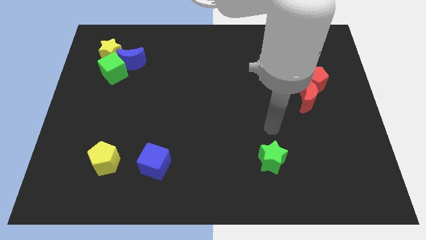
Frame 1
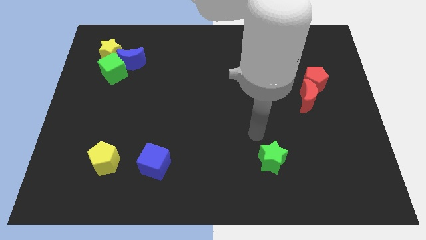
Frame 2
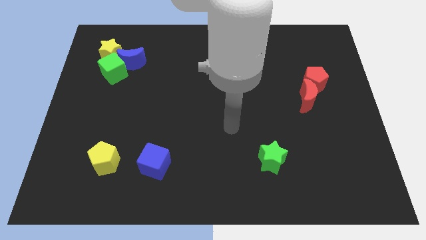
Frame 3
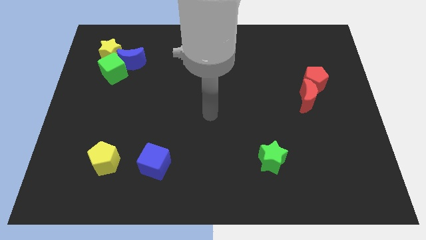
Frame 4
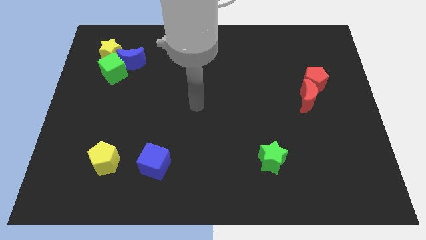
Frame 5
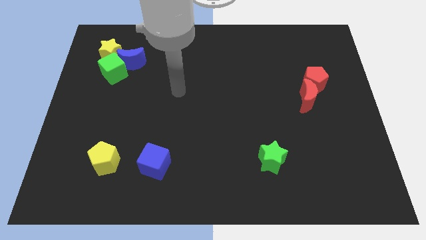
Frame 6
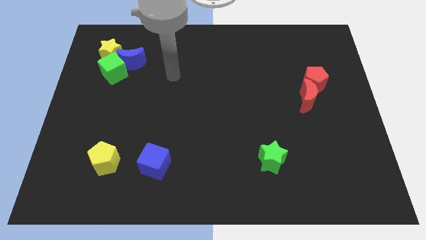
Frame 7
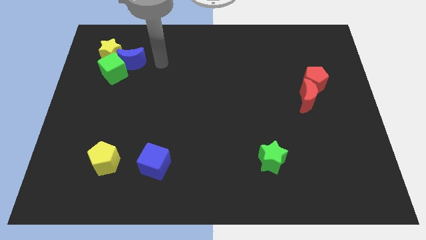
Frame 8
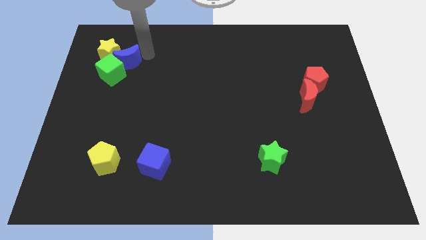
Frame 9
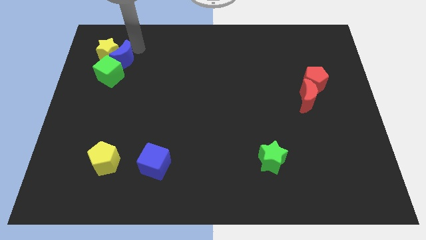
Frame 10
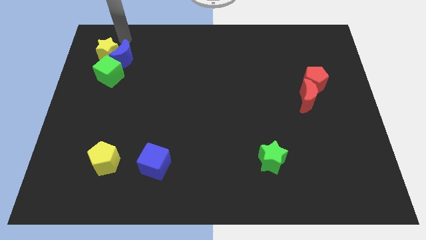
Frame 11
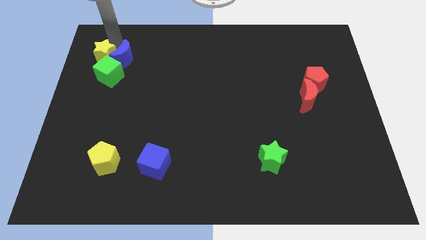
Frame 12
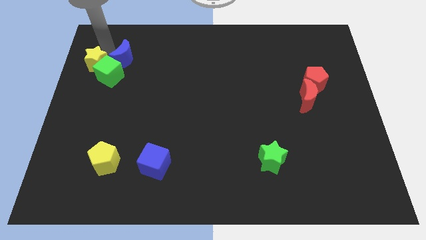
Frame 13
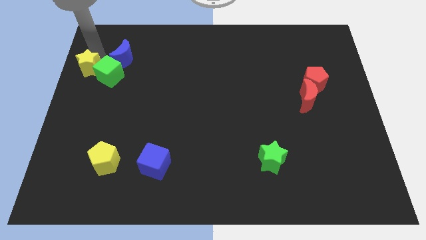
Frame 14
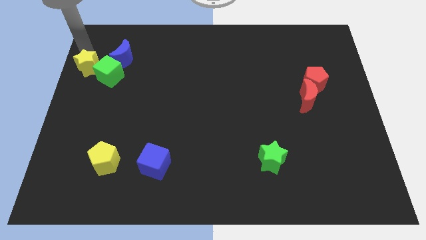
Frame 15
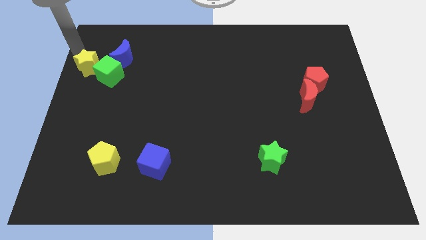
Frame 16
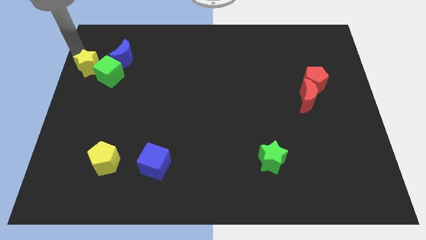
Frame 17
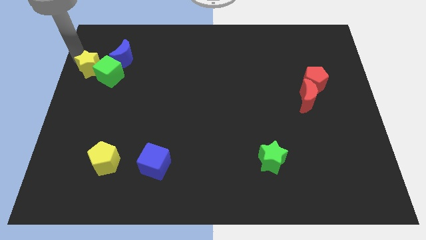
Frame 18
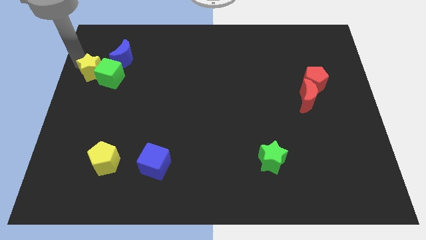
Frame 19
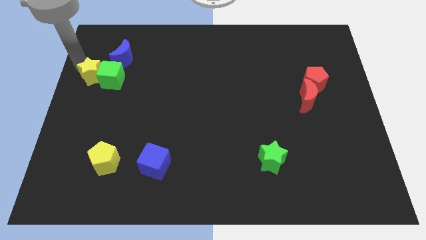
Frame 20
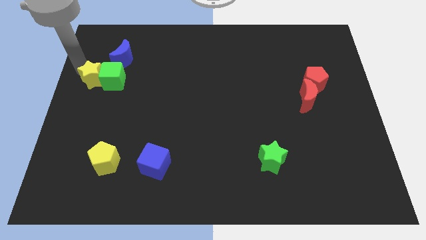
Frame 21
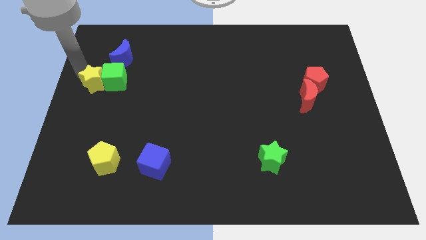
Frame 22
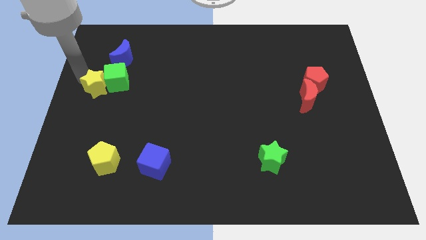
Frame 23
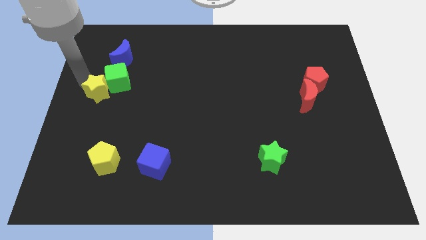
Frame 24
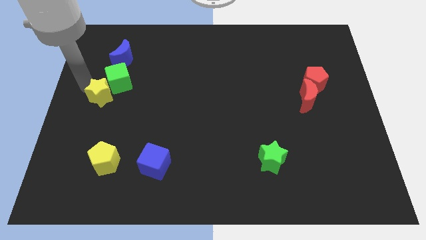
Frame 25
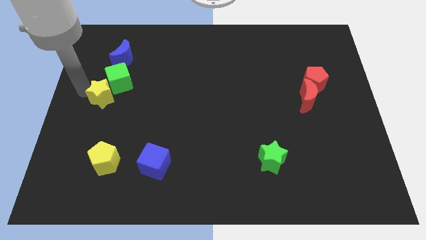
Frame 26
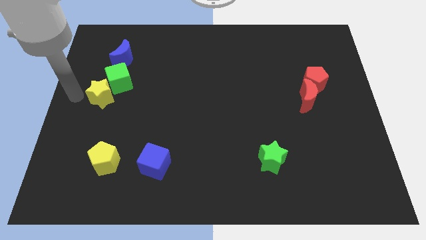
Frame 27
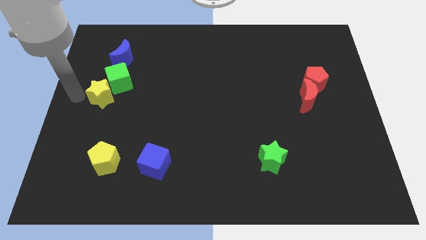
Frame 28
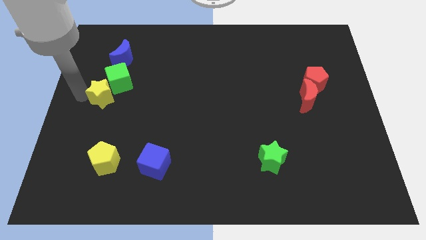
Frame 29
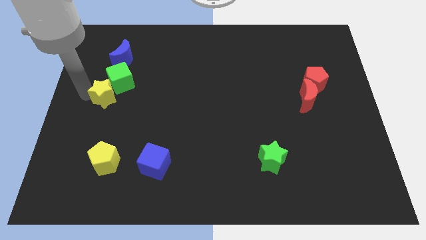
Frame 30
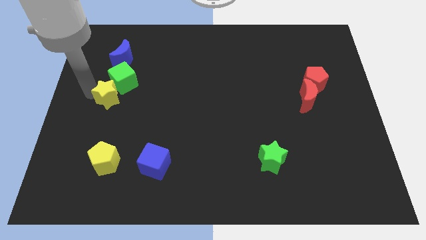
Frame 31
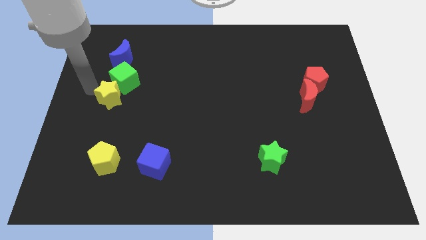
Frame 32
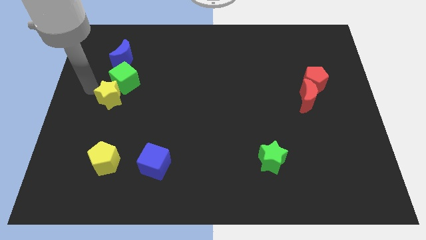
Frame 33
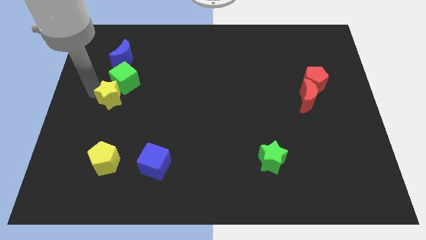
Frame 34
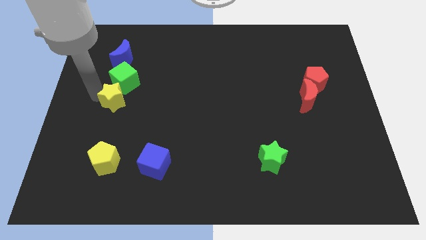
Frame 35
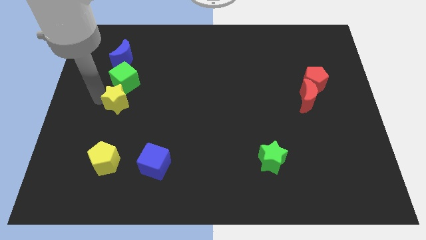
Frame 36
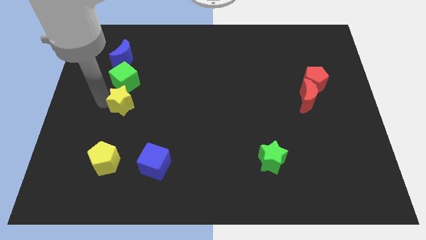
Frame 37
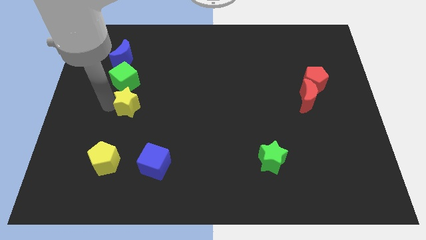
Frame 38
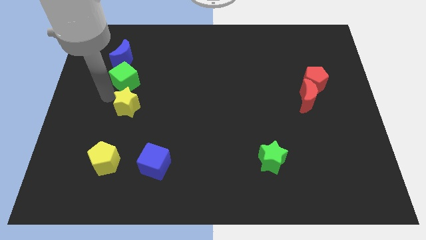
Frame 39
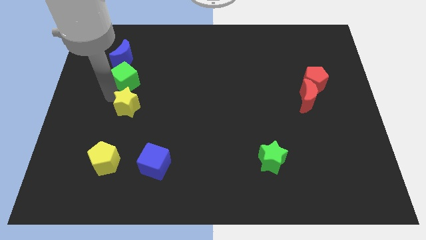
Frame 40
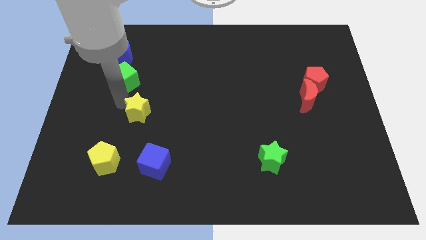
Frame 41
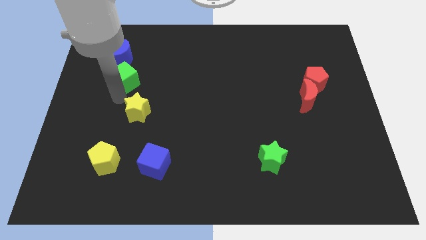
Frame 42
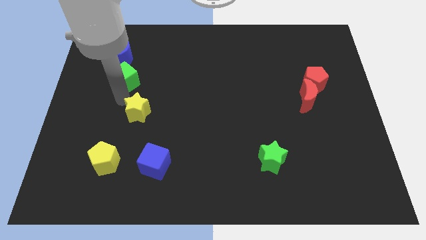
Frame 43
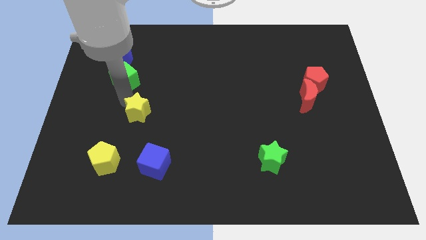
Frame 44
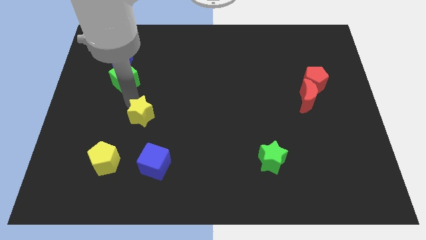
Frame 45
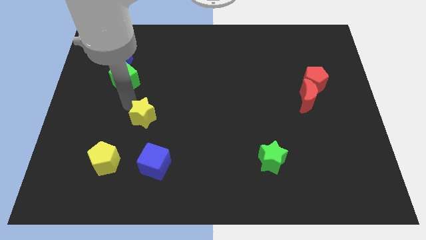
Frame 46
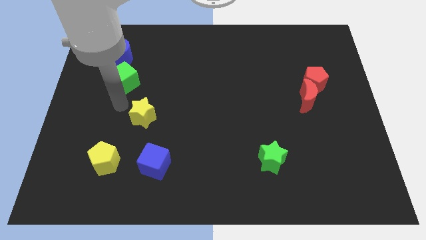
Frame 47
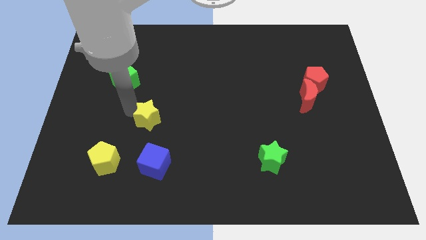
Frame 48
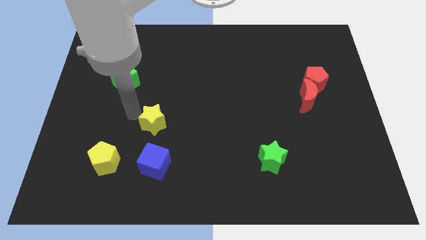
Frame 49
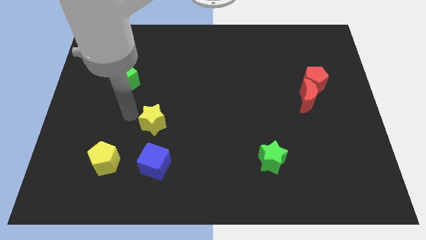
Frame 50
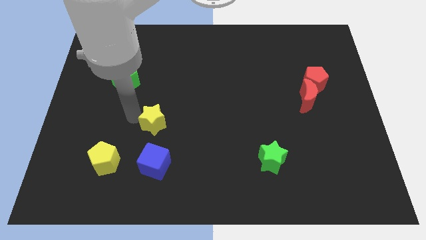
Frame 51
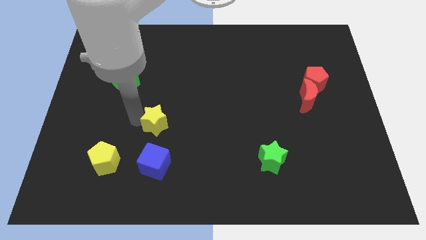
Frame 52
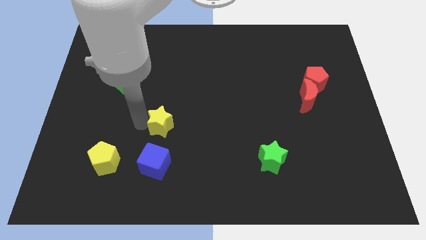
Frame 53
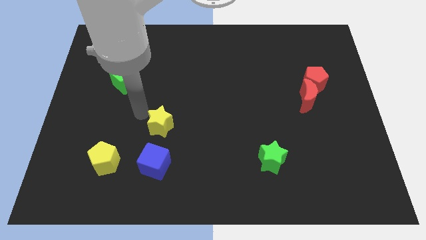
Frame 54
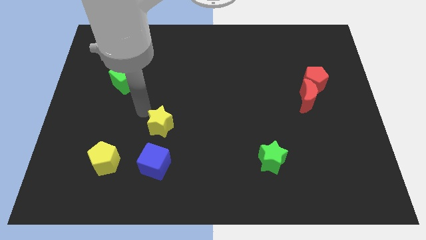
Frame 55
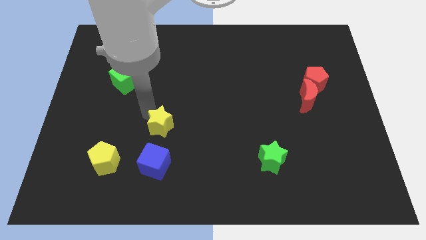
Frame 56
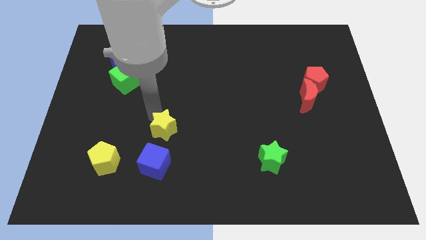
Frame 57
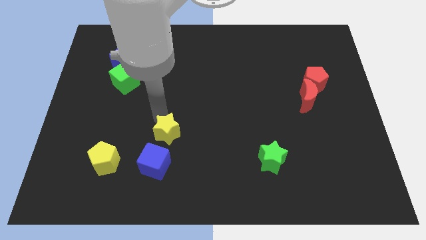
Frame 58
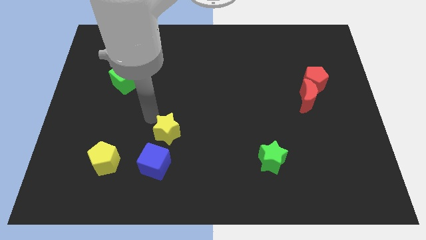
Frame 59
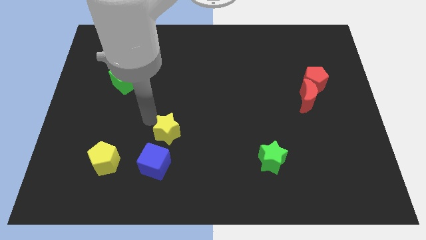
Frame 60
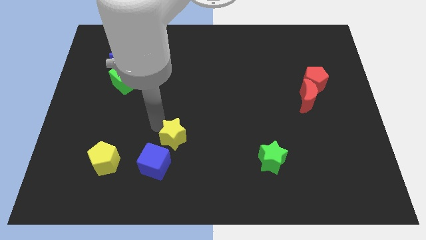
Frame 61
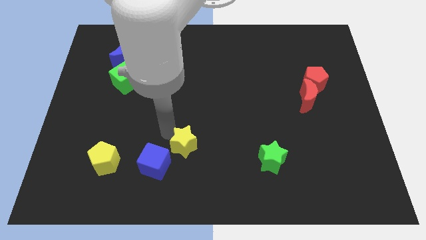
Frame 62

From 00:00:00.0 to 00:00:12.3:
slide the yellow star just right of the blue cube

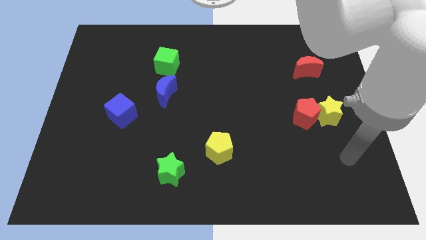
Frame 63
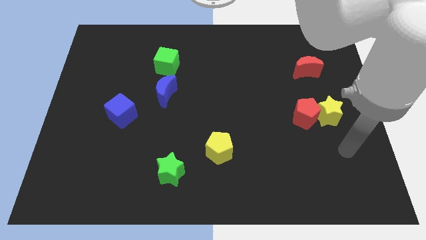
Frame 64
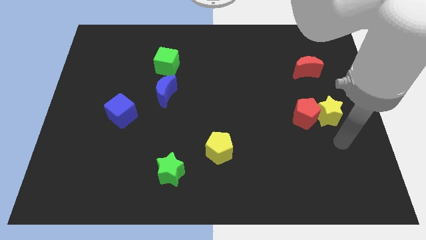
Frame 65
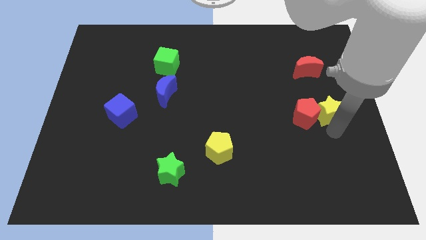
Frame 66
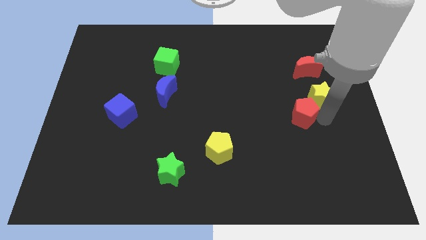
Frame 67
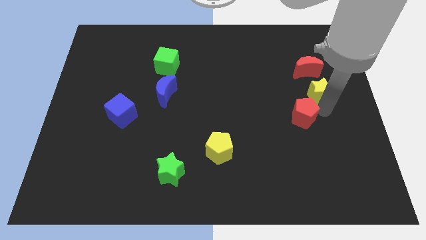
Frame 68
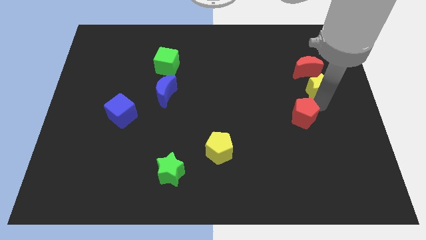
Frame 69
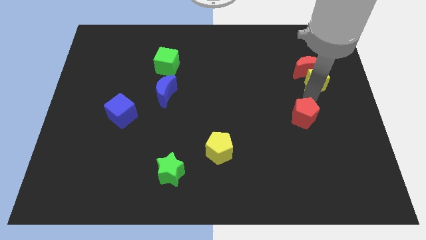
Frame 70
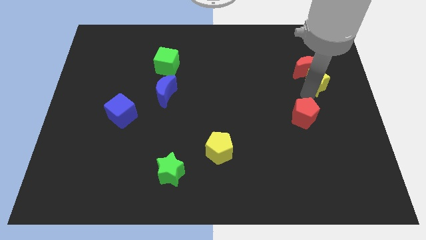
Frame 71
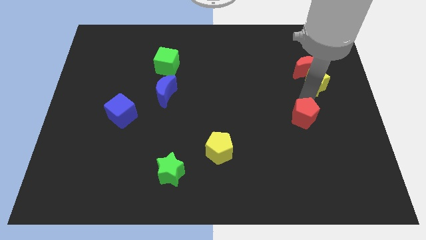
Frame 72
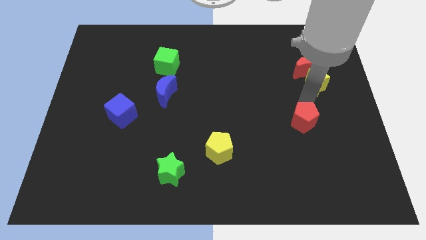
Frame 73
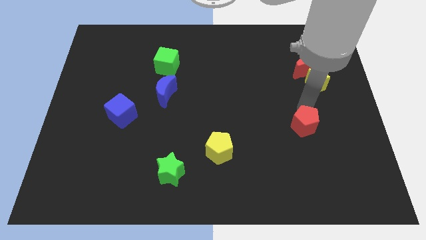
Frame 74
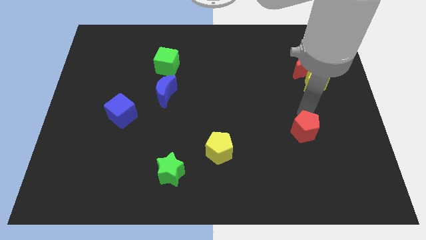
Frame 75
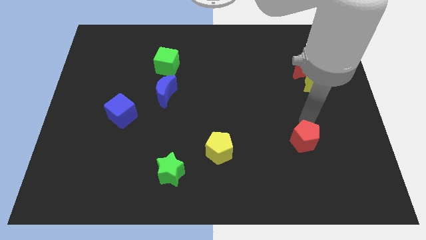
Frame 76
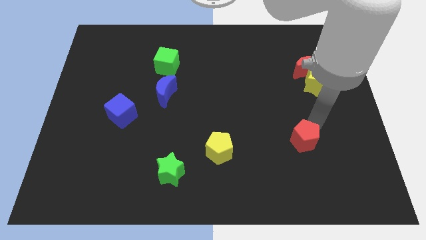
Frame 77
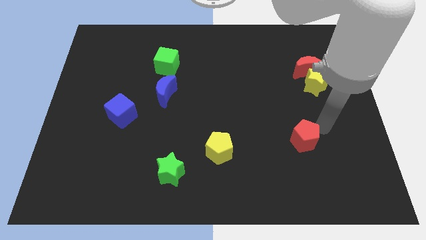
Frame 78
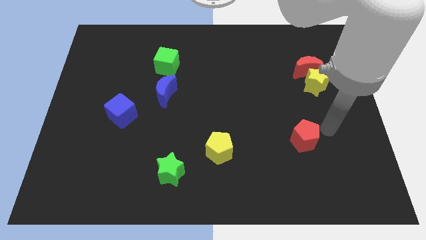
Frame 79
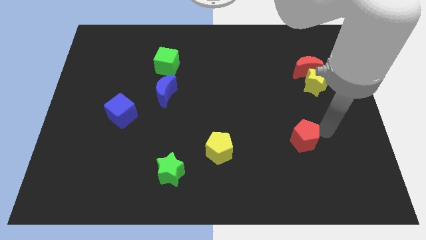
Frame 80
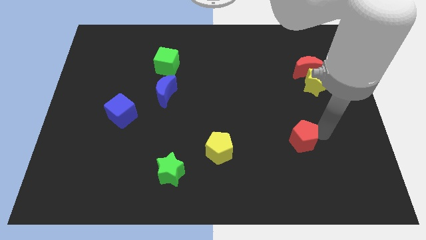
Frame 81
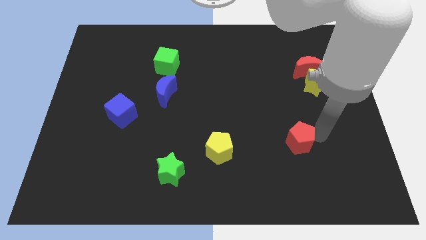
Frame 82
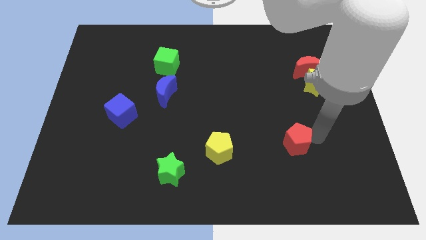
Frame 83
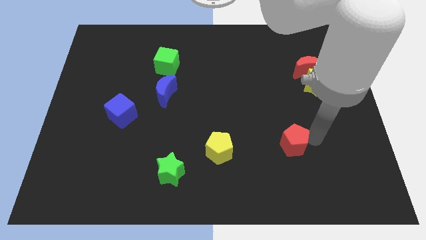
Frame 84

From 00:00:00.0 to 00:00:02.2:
put the red pentagon just right of the yellow pentagon

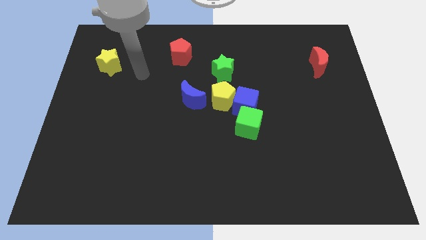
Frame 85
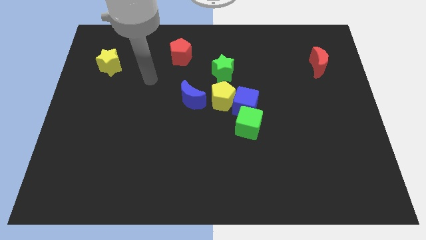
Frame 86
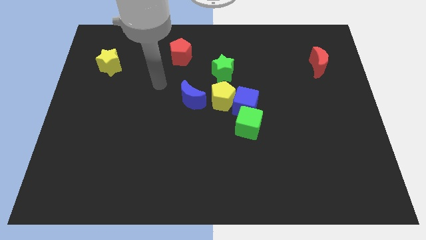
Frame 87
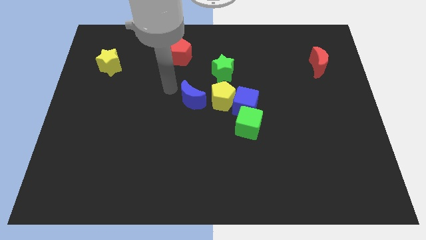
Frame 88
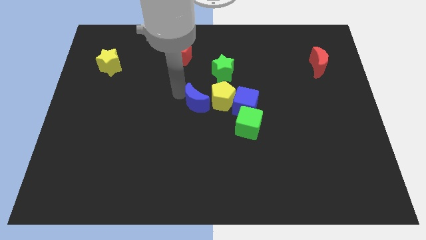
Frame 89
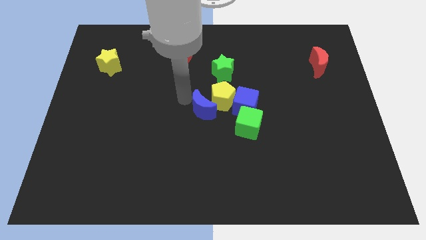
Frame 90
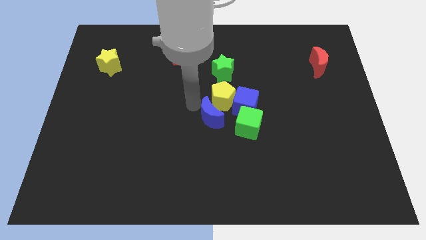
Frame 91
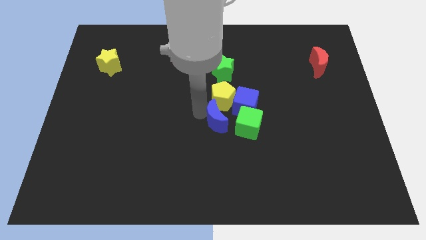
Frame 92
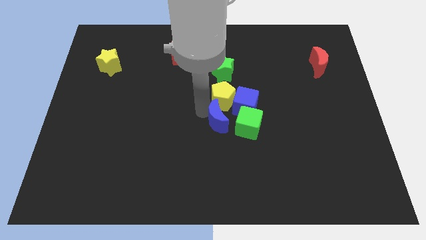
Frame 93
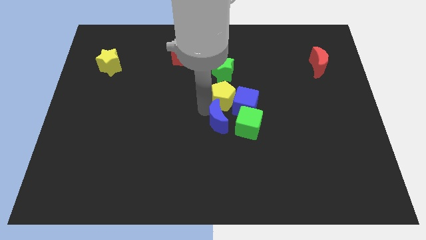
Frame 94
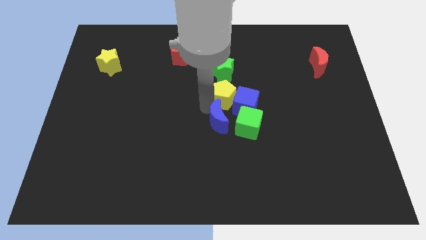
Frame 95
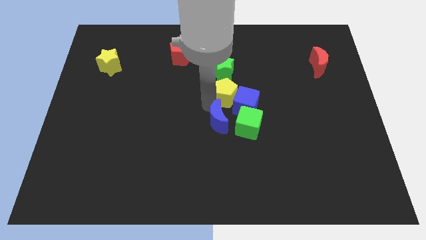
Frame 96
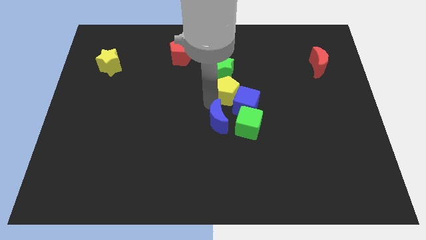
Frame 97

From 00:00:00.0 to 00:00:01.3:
push the yellow pentagon diagonally down and to the right of the green star
